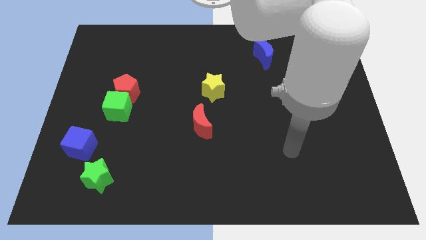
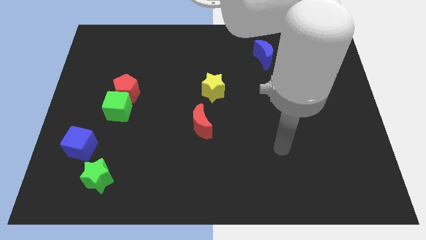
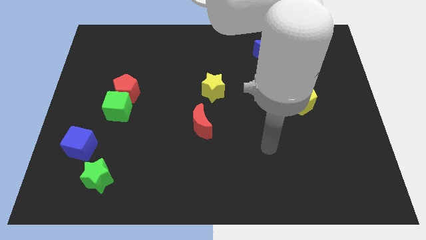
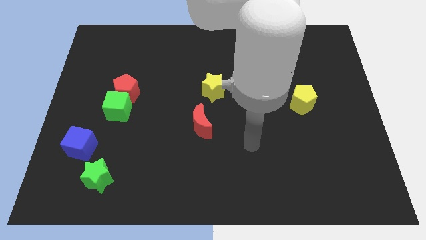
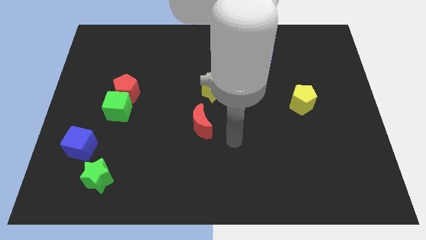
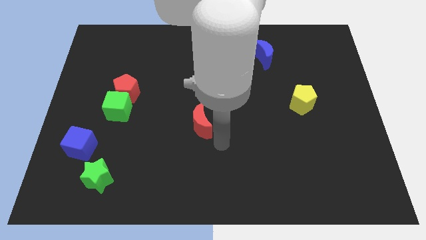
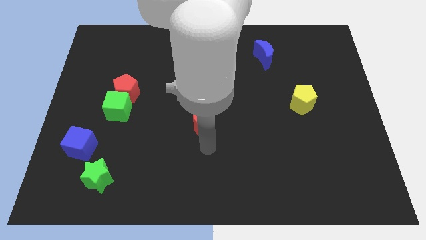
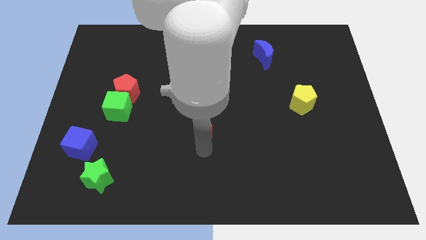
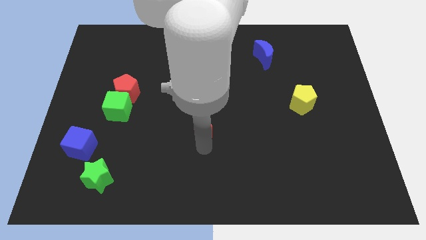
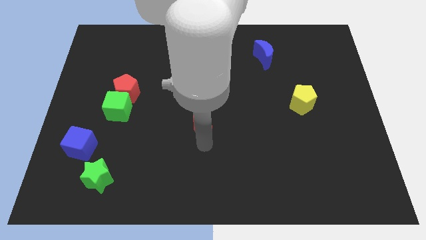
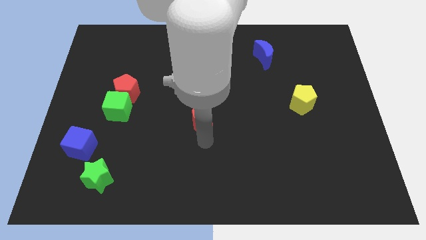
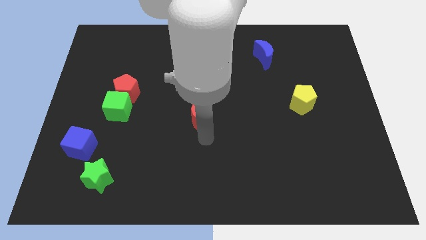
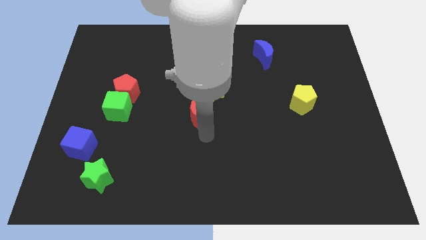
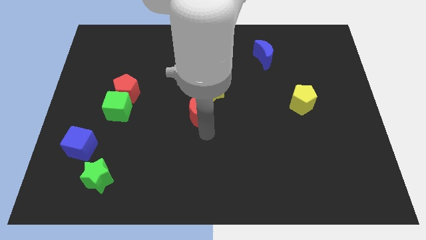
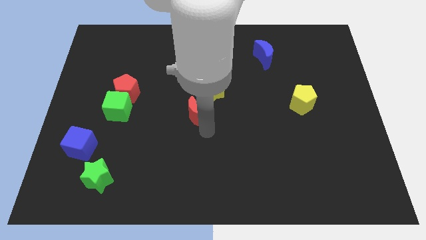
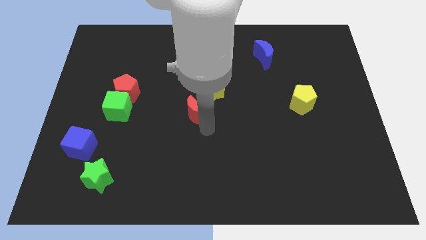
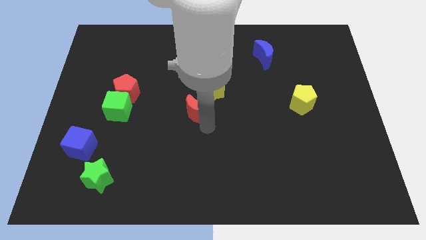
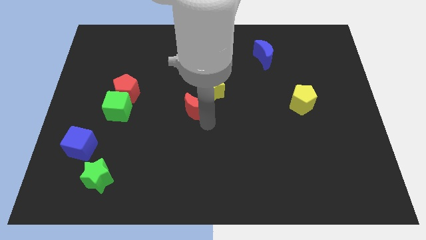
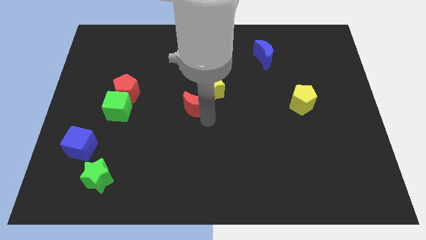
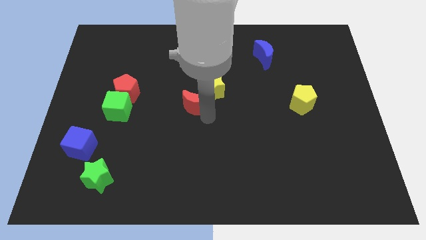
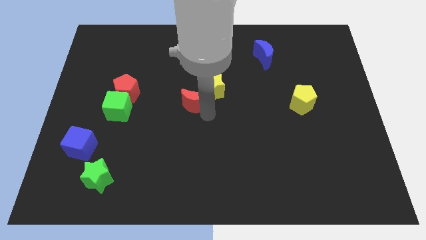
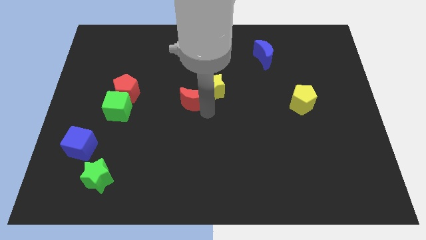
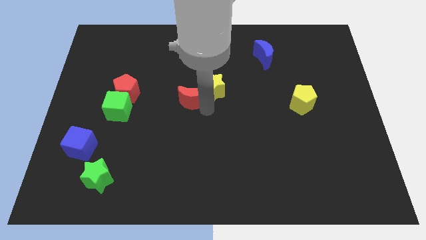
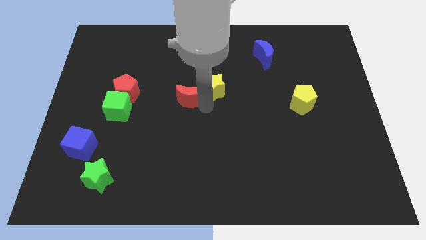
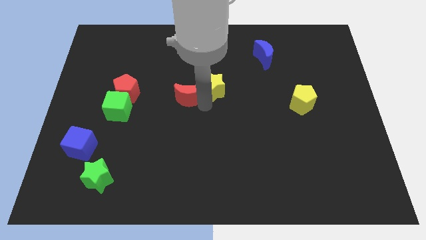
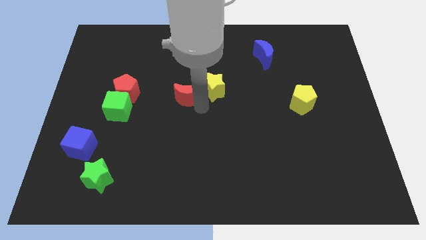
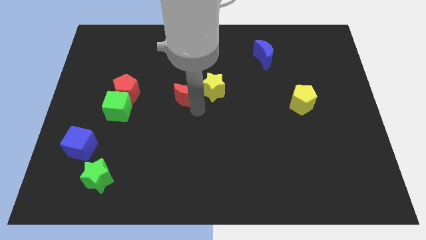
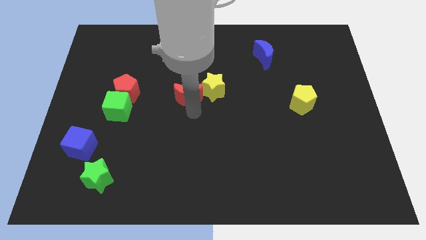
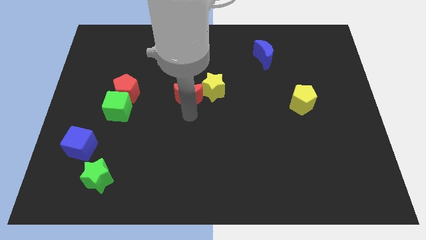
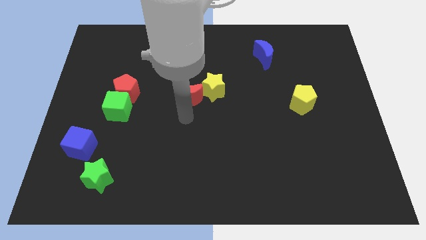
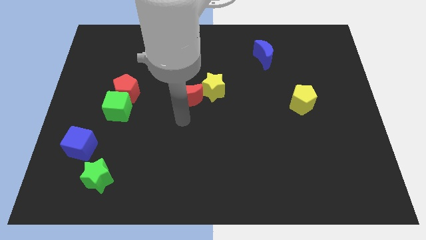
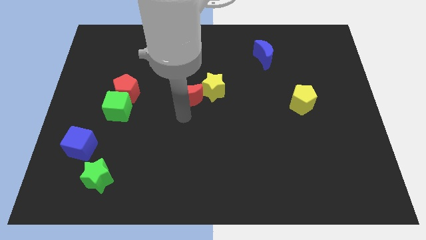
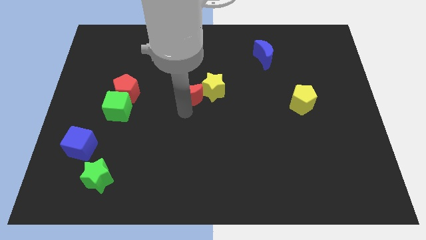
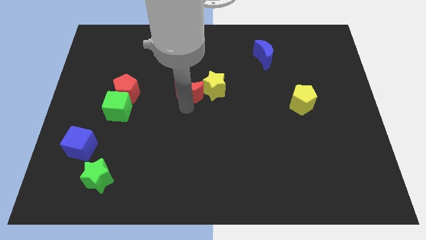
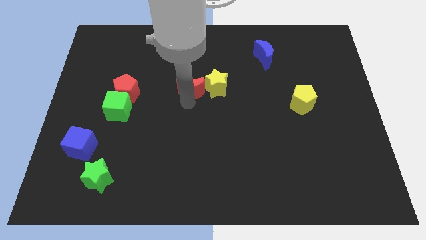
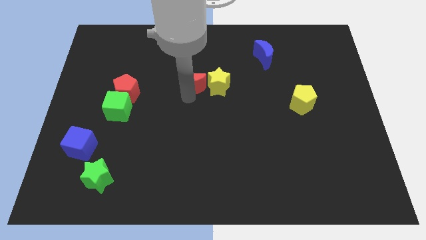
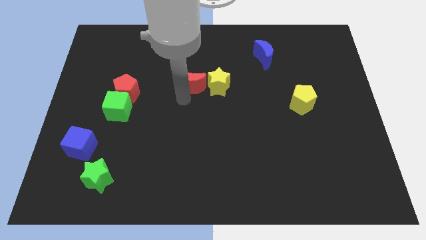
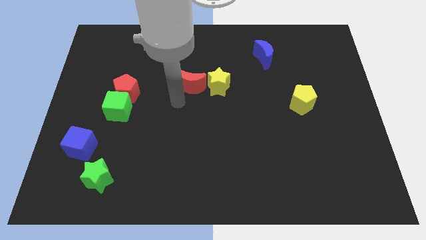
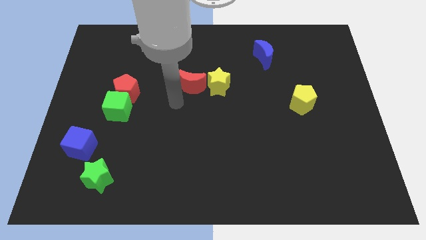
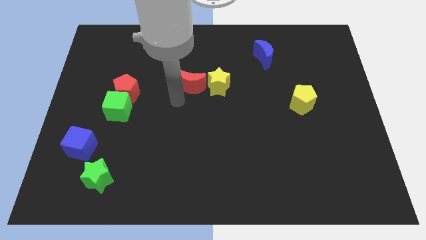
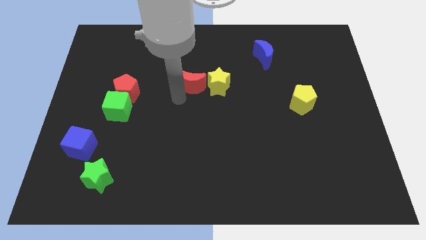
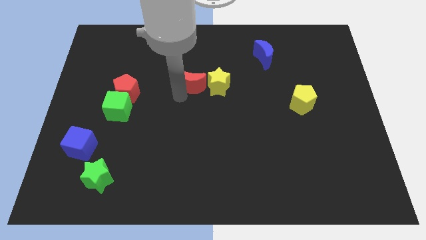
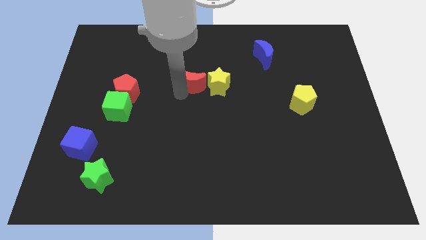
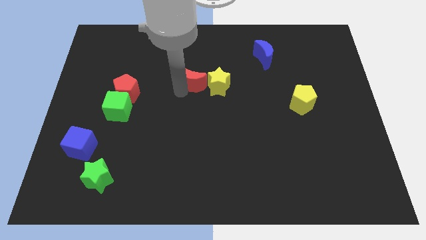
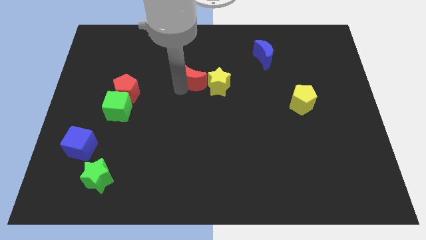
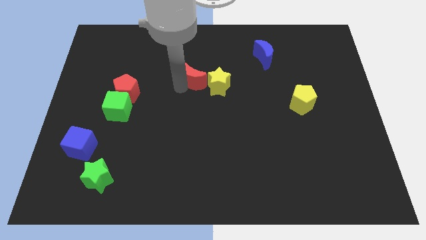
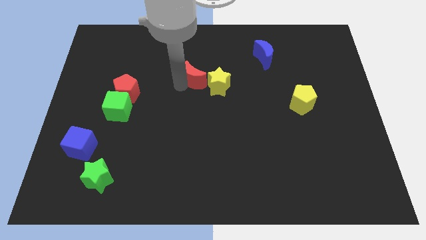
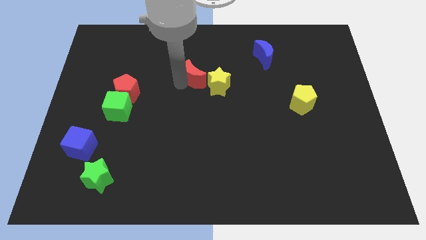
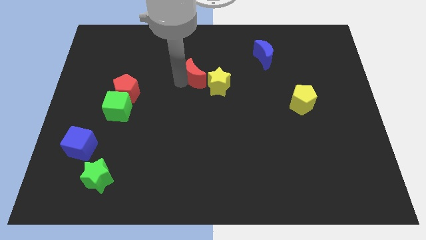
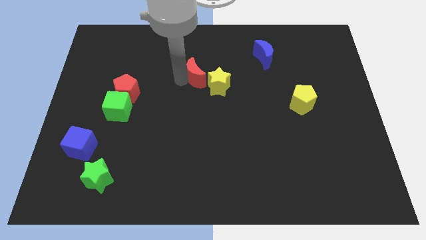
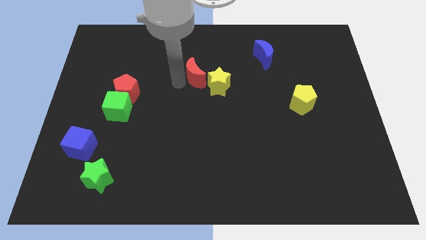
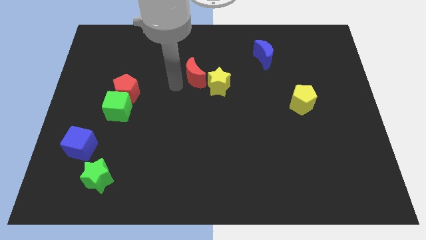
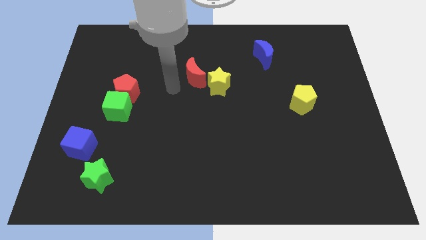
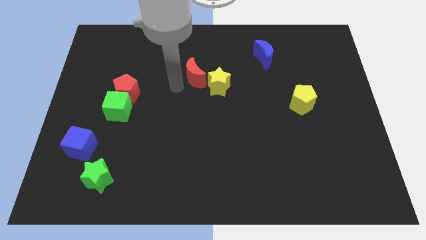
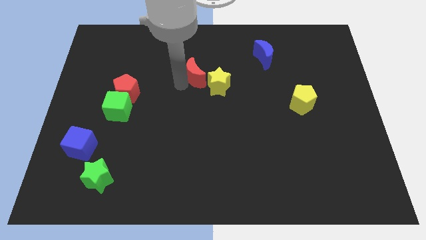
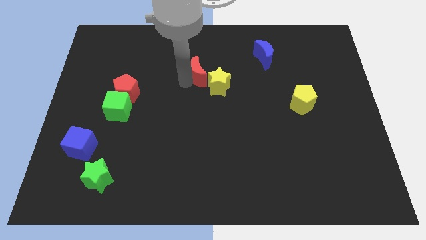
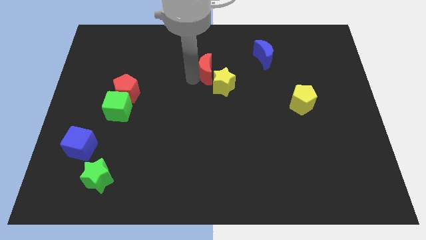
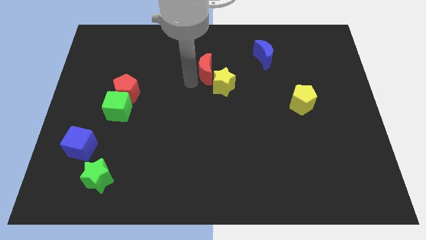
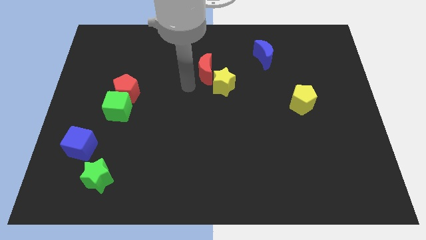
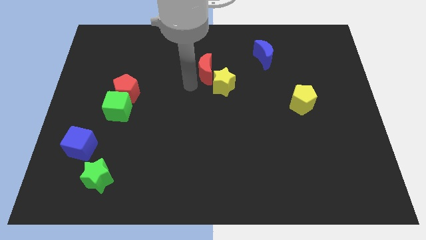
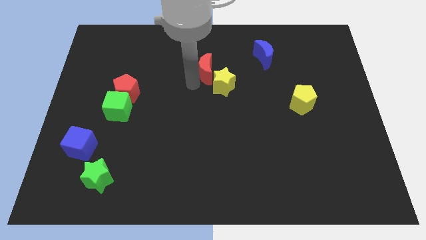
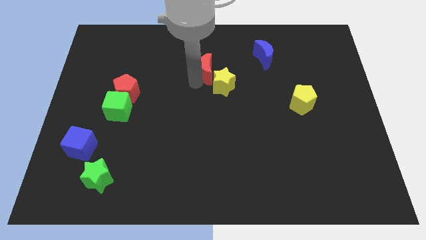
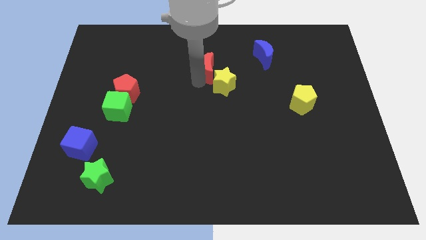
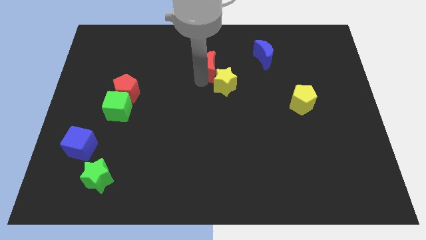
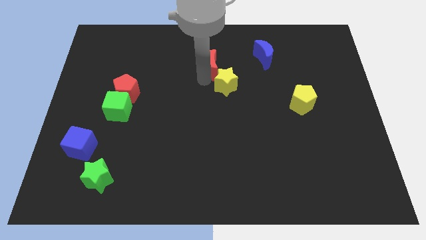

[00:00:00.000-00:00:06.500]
put the red moon to the left side of the blue moon
